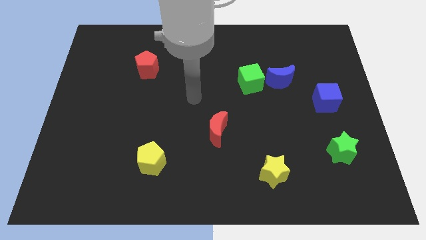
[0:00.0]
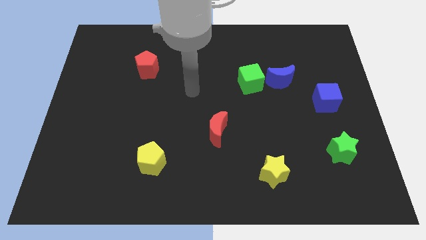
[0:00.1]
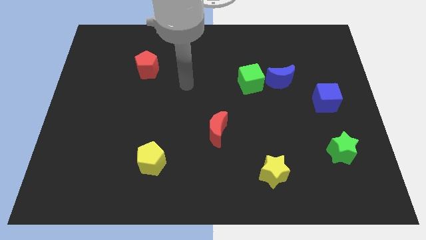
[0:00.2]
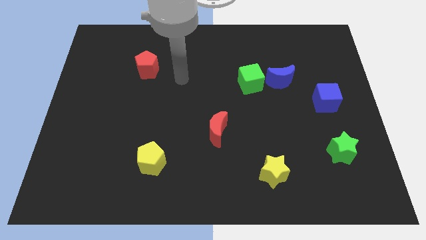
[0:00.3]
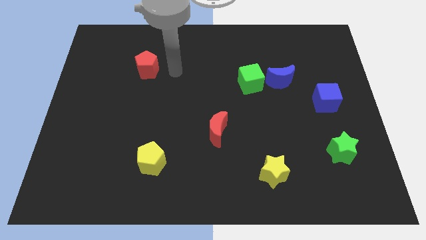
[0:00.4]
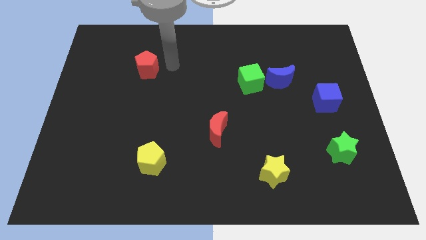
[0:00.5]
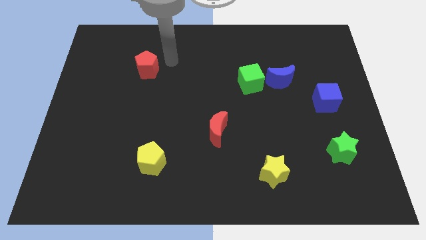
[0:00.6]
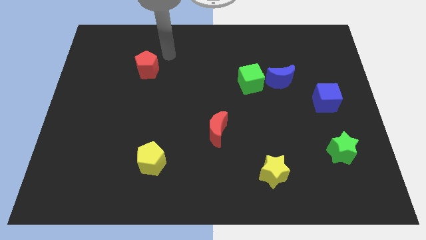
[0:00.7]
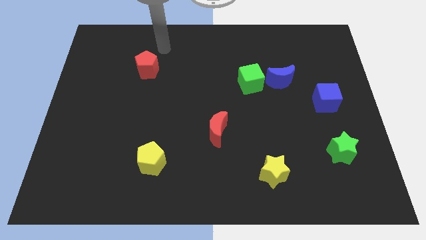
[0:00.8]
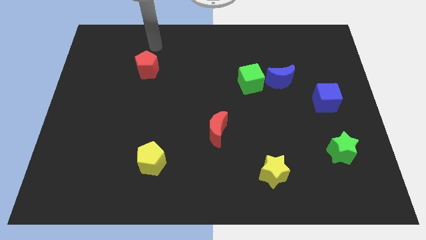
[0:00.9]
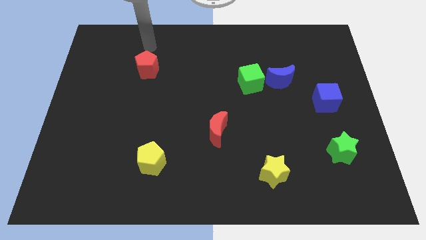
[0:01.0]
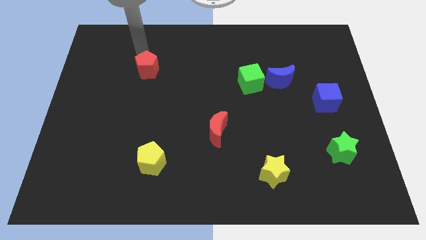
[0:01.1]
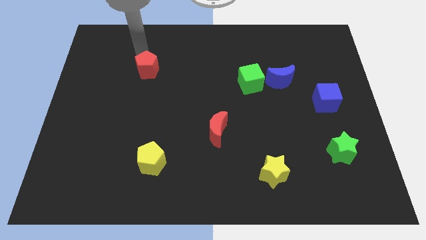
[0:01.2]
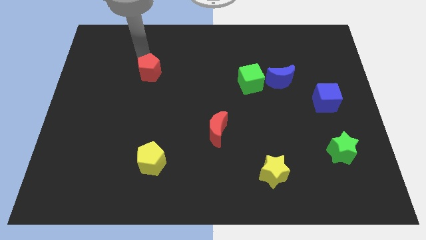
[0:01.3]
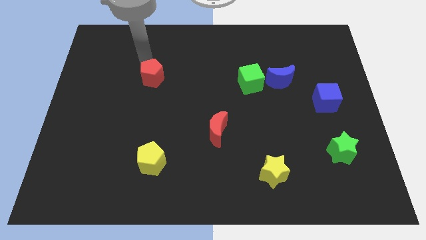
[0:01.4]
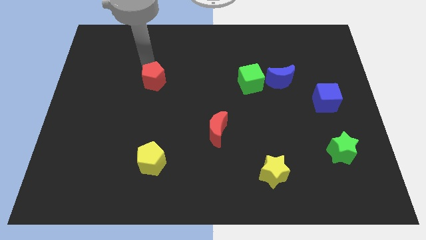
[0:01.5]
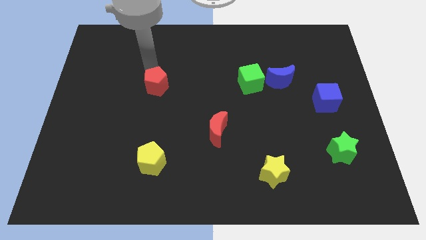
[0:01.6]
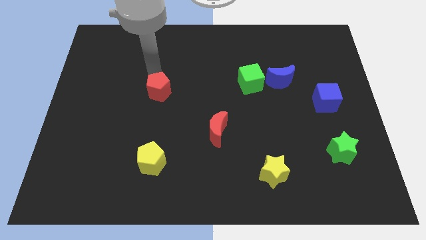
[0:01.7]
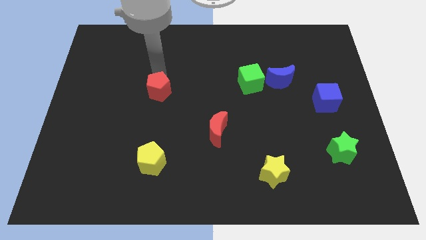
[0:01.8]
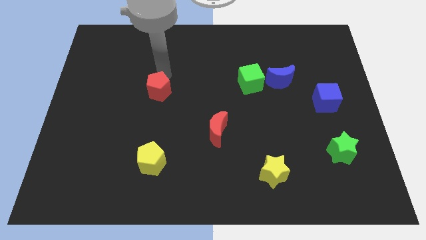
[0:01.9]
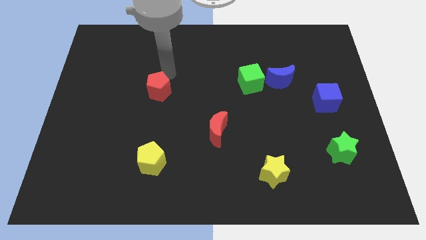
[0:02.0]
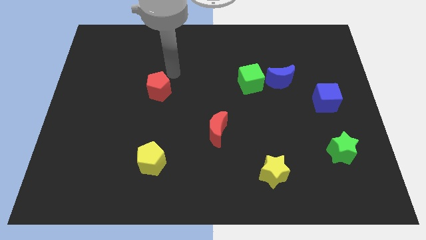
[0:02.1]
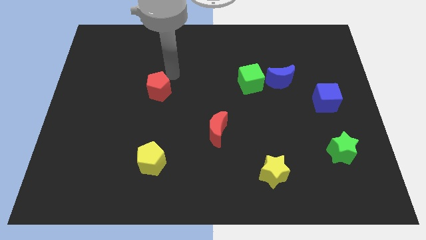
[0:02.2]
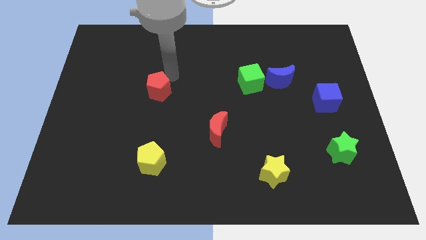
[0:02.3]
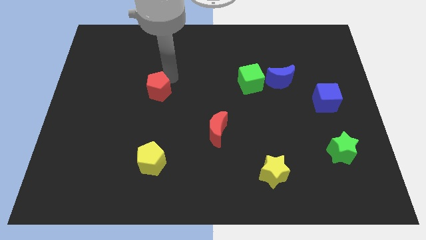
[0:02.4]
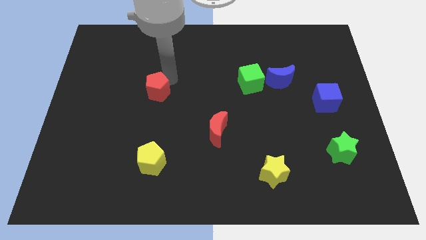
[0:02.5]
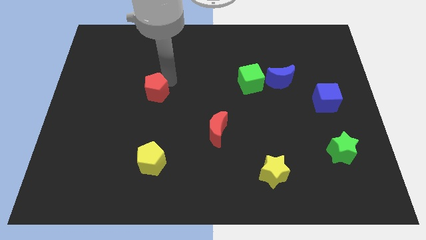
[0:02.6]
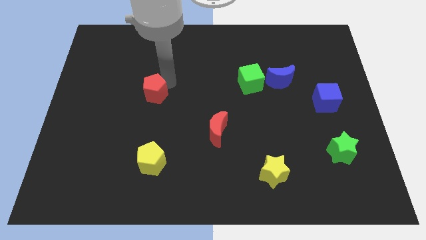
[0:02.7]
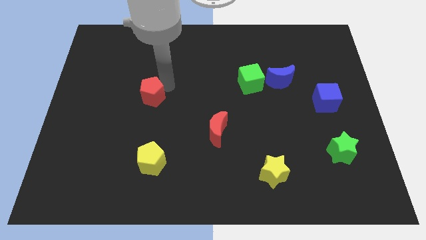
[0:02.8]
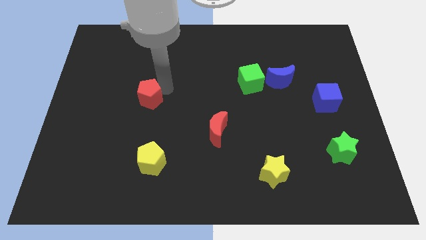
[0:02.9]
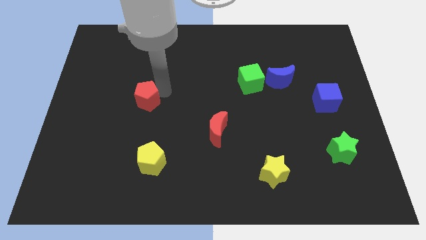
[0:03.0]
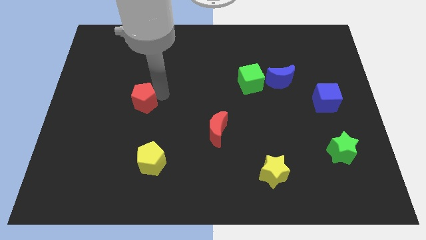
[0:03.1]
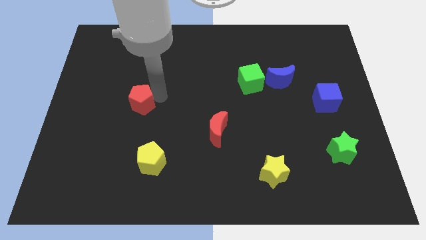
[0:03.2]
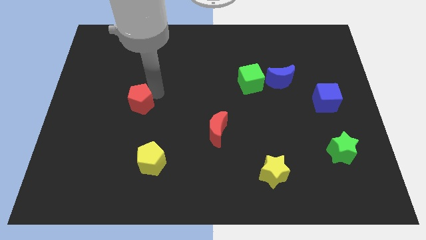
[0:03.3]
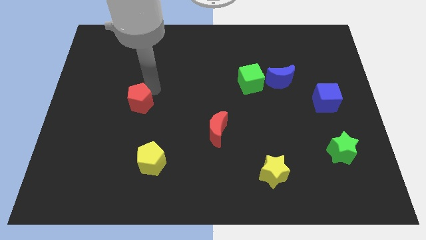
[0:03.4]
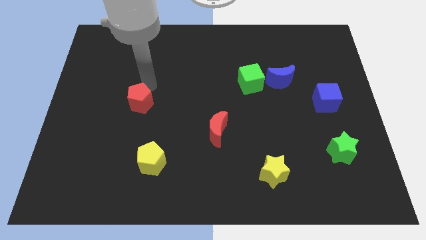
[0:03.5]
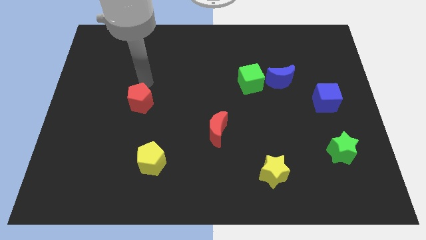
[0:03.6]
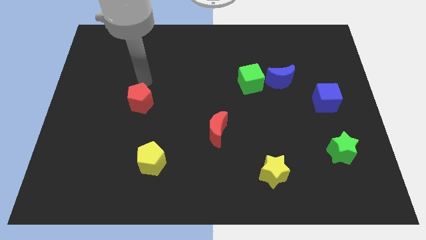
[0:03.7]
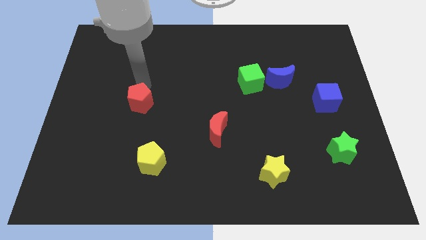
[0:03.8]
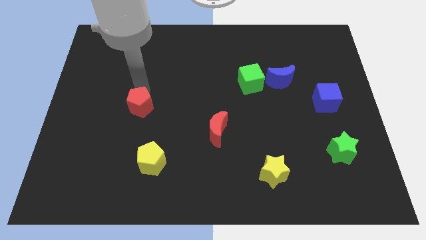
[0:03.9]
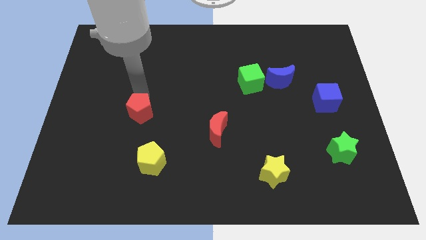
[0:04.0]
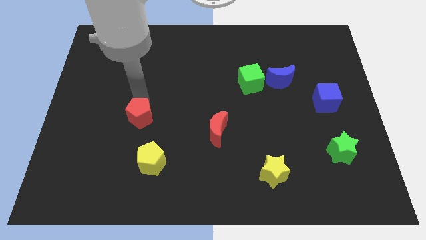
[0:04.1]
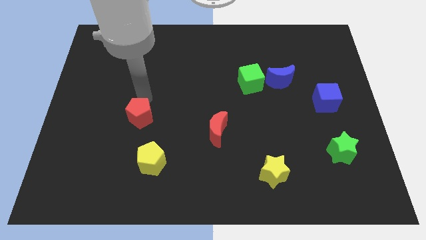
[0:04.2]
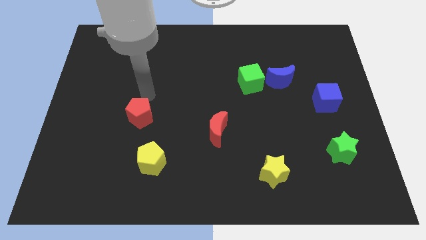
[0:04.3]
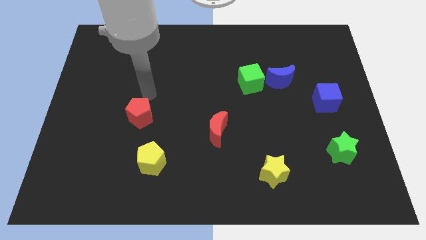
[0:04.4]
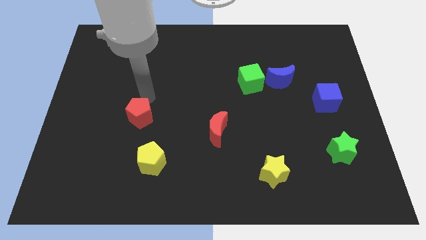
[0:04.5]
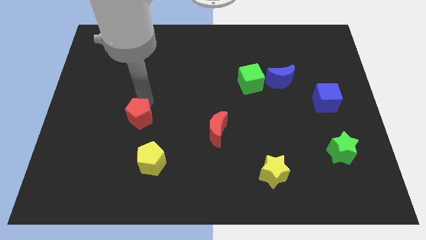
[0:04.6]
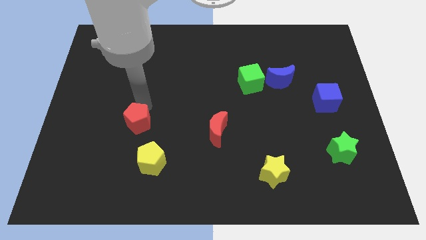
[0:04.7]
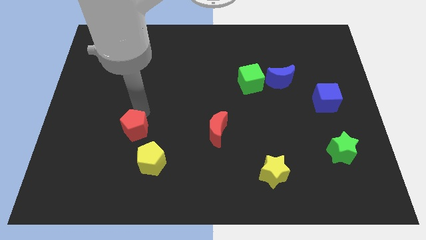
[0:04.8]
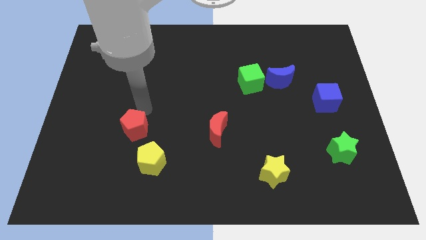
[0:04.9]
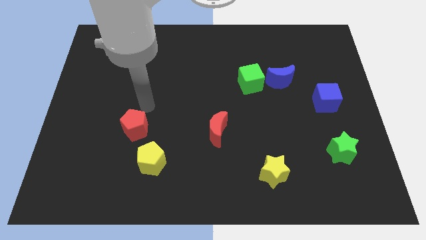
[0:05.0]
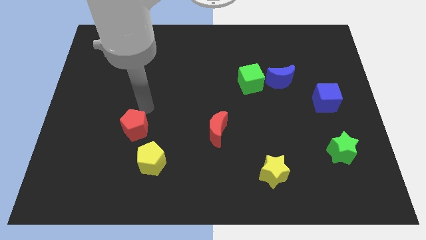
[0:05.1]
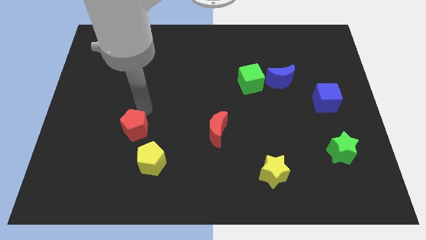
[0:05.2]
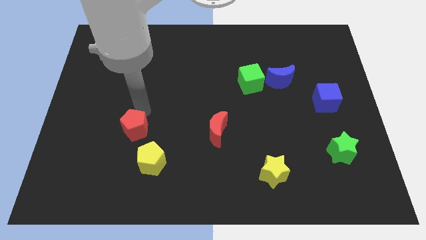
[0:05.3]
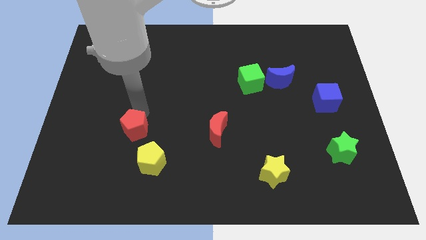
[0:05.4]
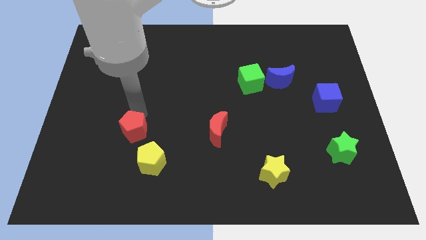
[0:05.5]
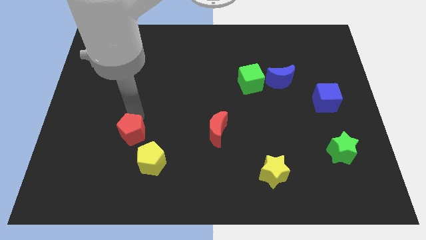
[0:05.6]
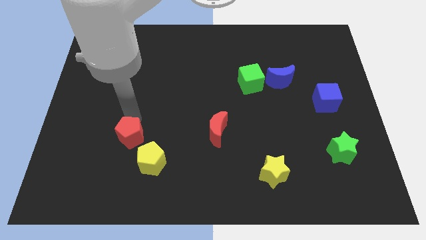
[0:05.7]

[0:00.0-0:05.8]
push the red pentagon downwards

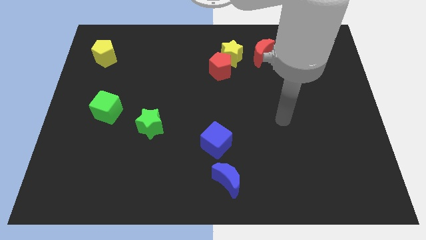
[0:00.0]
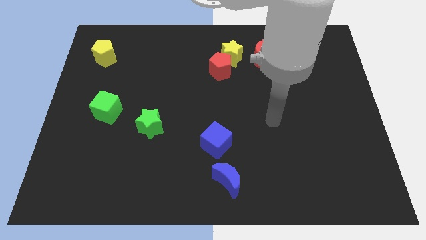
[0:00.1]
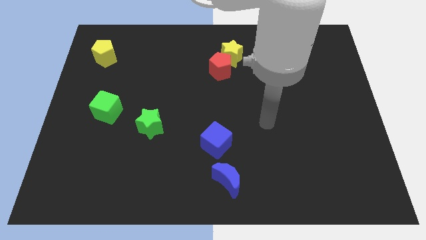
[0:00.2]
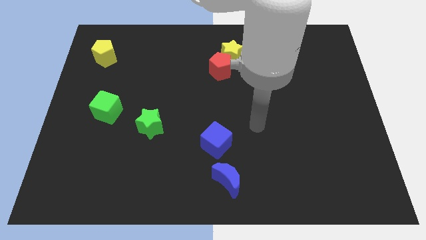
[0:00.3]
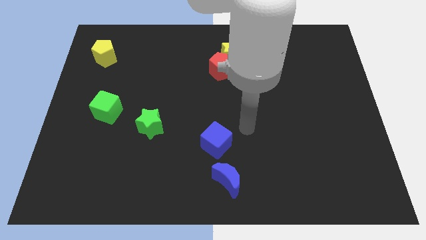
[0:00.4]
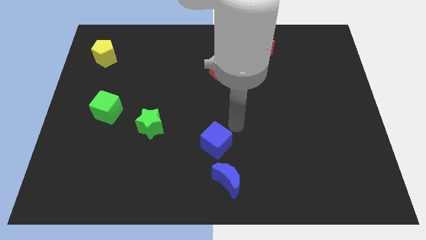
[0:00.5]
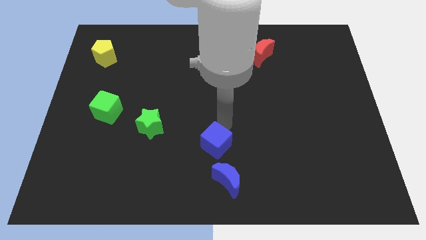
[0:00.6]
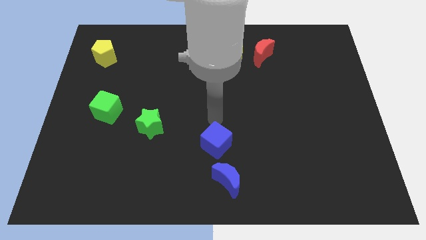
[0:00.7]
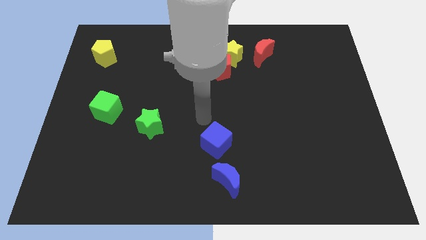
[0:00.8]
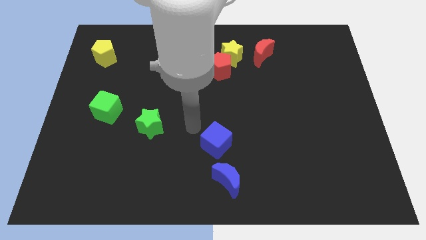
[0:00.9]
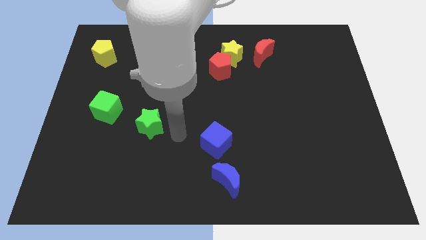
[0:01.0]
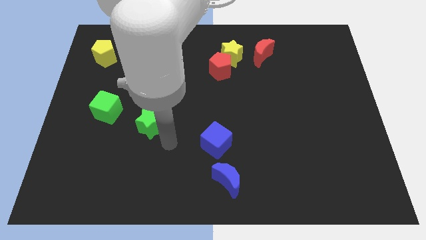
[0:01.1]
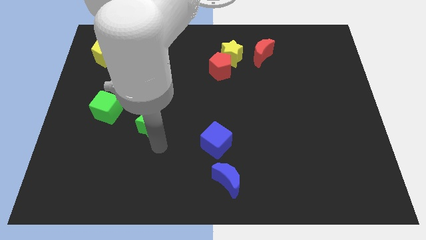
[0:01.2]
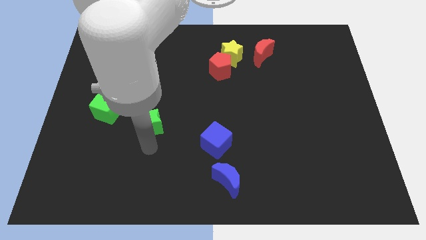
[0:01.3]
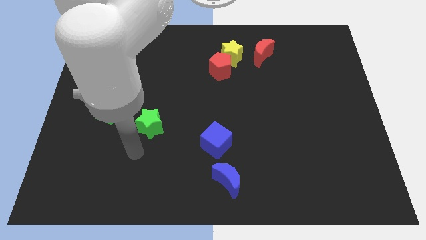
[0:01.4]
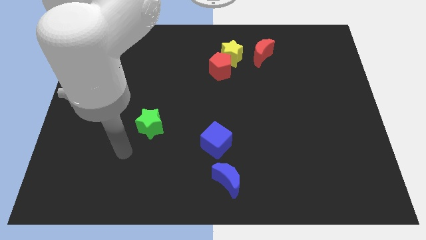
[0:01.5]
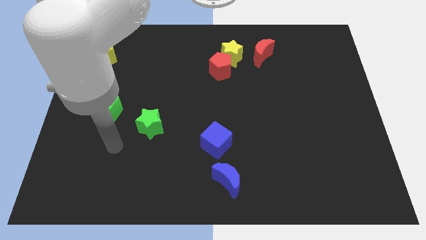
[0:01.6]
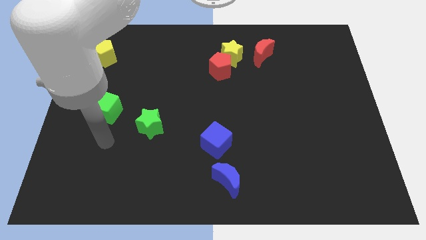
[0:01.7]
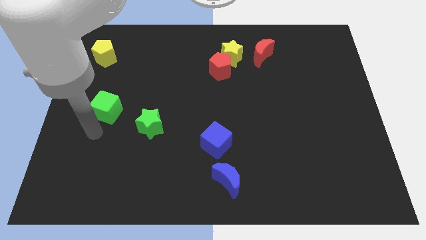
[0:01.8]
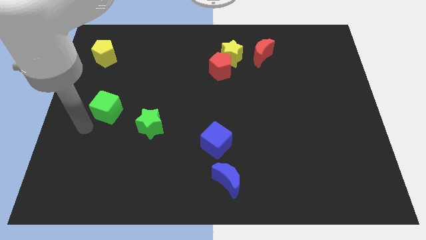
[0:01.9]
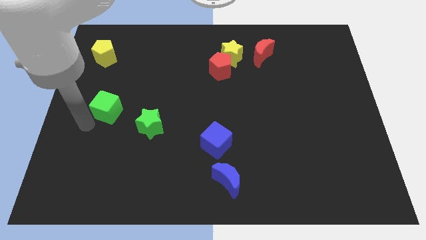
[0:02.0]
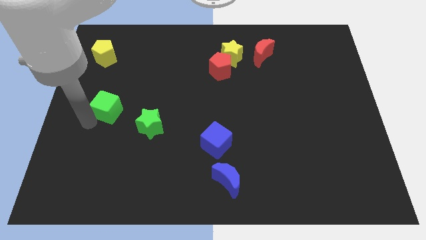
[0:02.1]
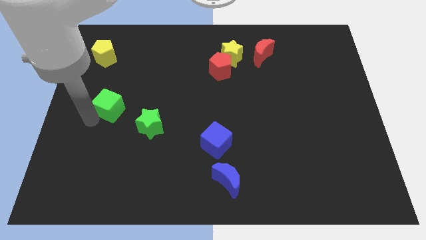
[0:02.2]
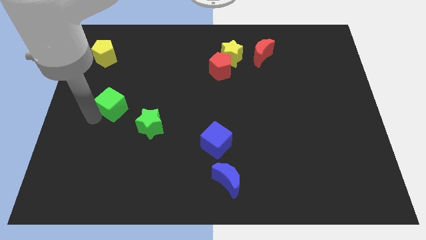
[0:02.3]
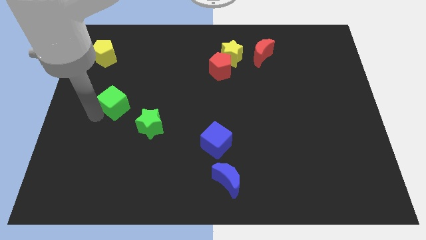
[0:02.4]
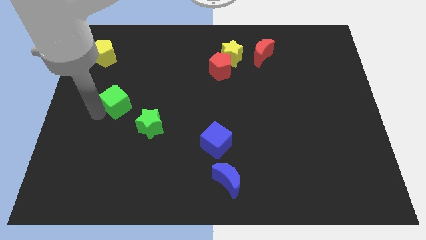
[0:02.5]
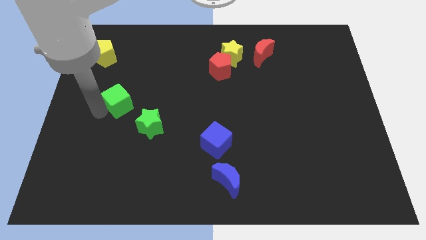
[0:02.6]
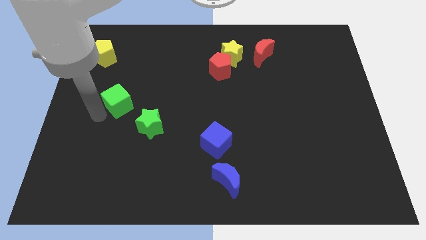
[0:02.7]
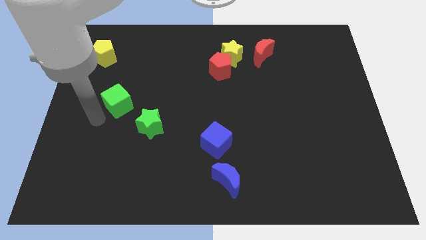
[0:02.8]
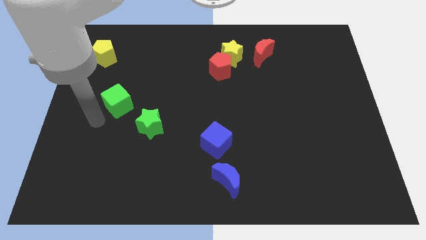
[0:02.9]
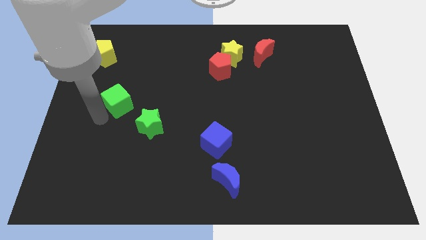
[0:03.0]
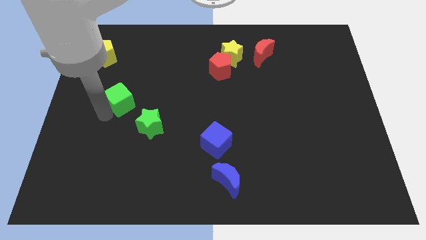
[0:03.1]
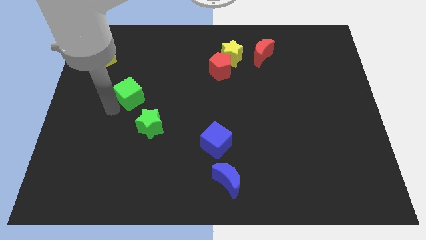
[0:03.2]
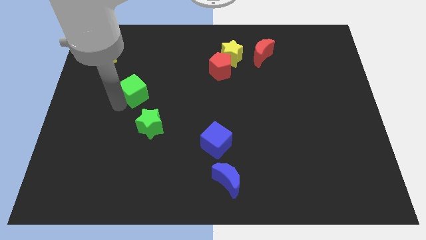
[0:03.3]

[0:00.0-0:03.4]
slide the green cube upwards and then right somewhat
